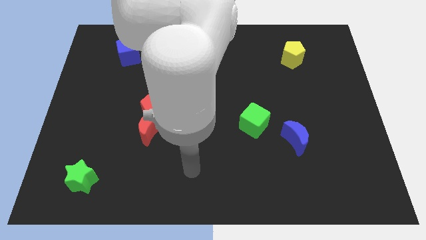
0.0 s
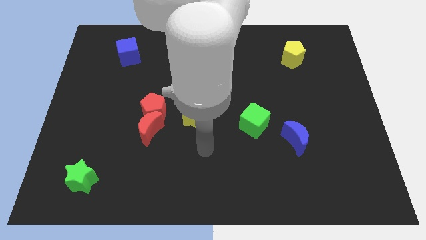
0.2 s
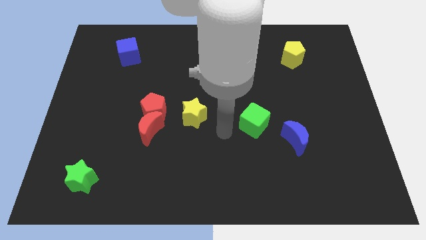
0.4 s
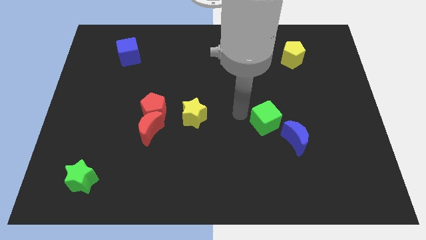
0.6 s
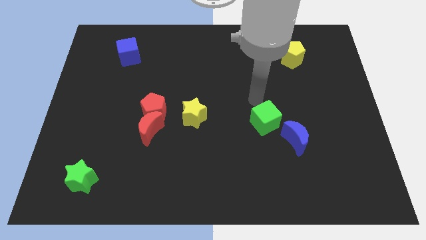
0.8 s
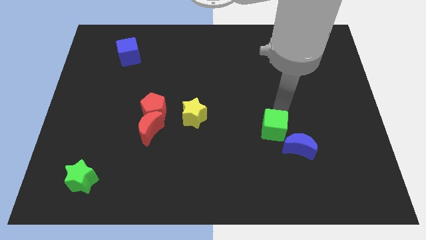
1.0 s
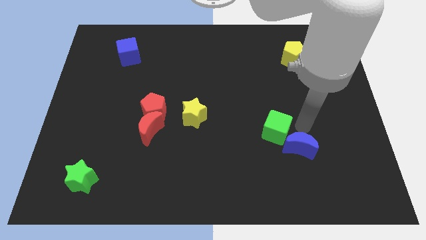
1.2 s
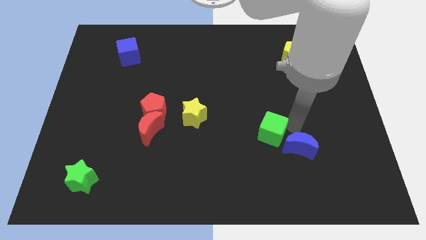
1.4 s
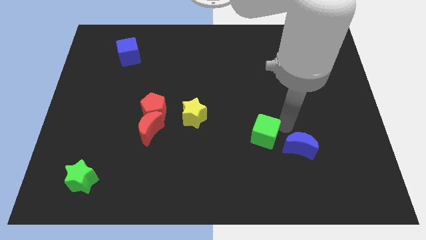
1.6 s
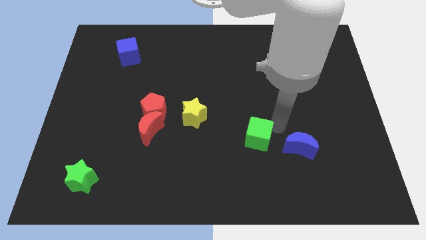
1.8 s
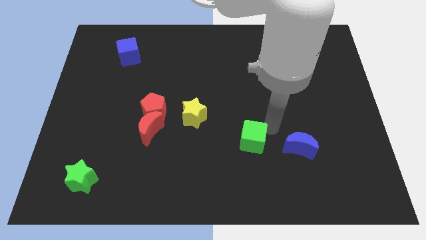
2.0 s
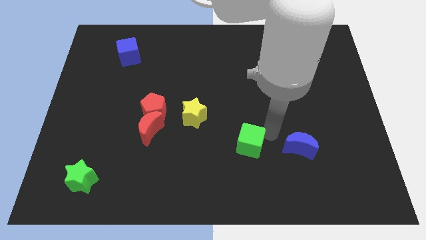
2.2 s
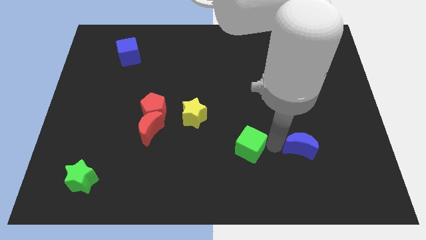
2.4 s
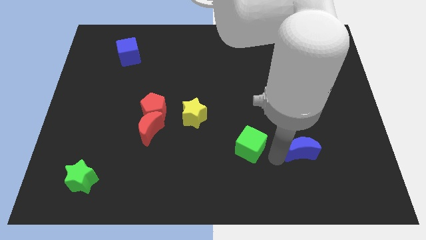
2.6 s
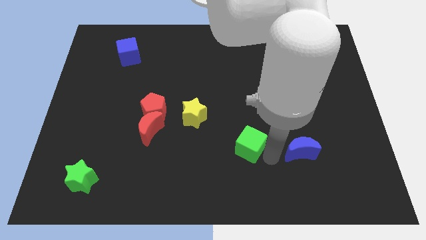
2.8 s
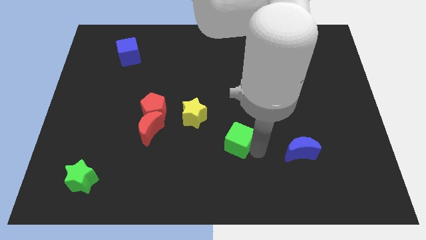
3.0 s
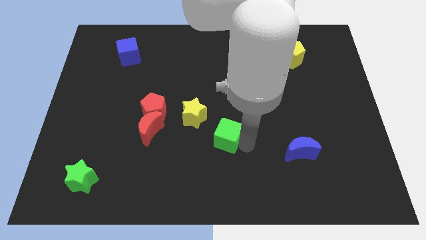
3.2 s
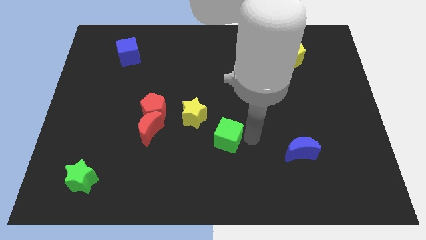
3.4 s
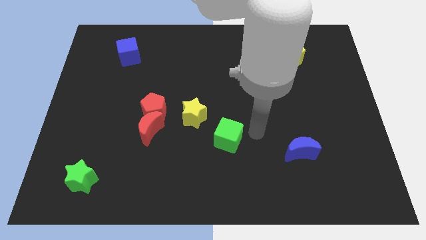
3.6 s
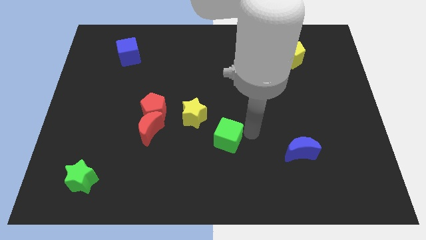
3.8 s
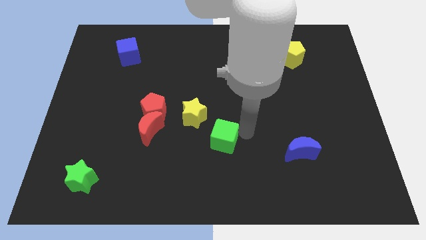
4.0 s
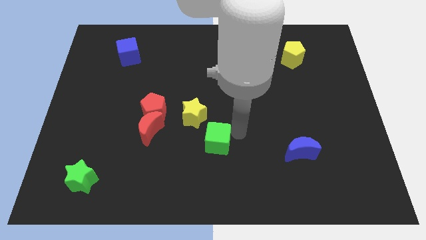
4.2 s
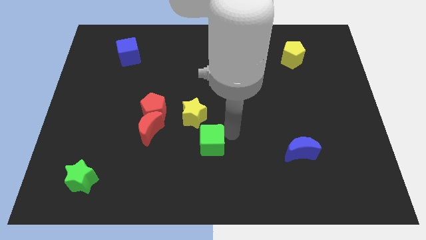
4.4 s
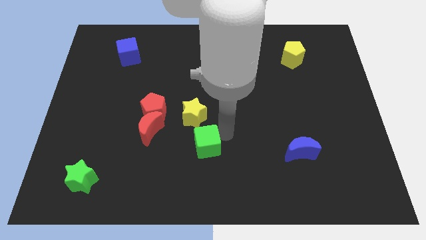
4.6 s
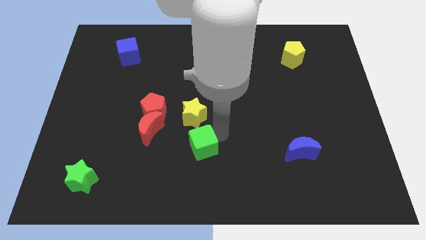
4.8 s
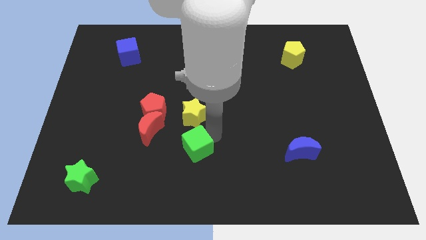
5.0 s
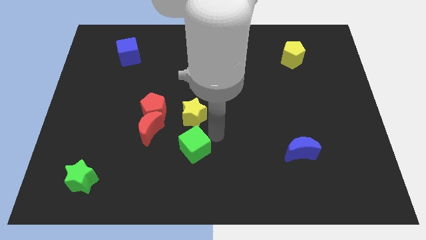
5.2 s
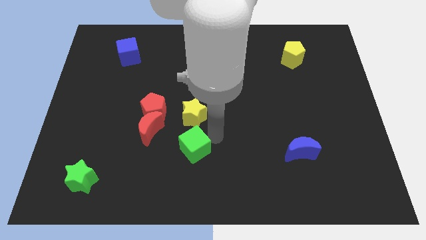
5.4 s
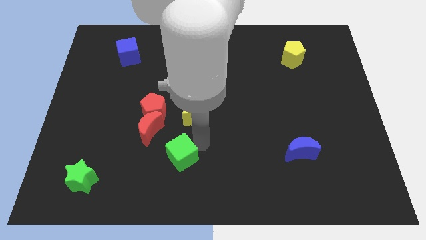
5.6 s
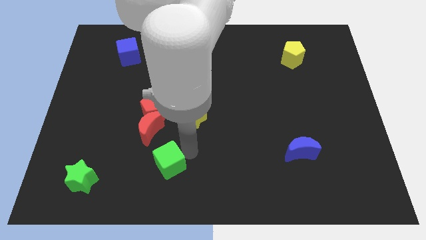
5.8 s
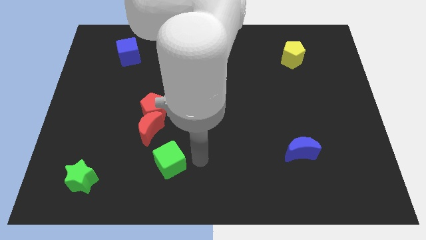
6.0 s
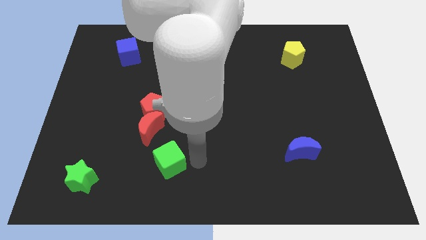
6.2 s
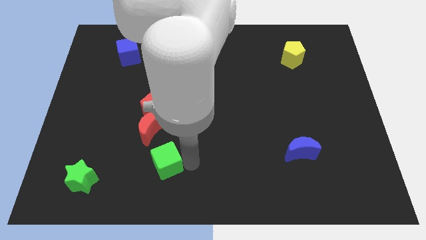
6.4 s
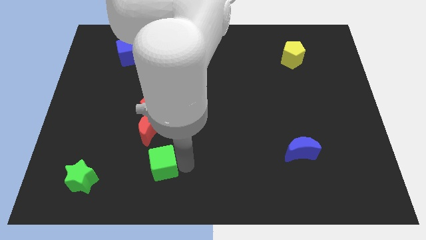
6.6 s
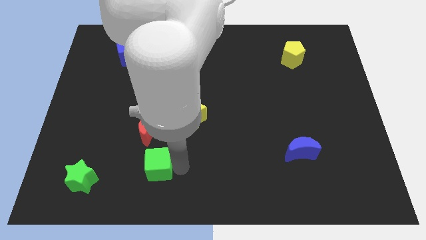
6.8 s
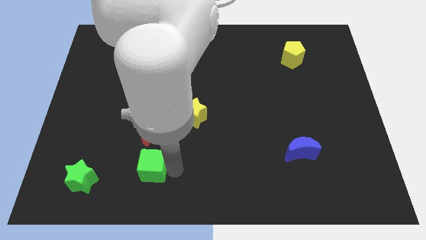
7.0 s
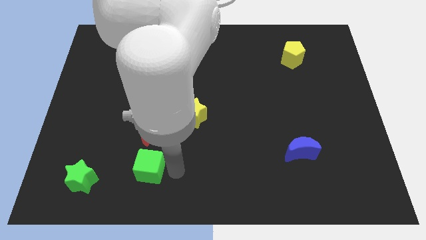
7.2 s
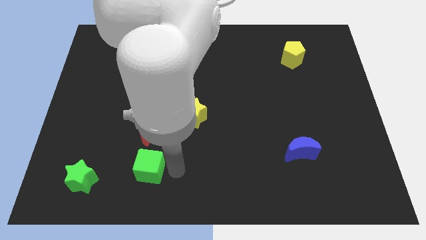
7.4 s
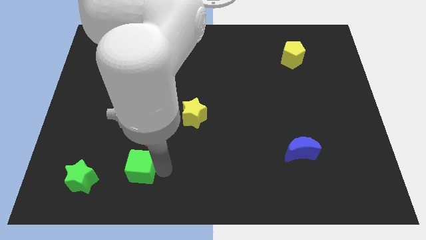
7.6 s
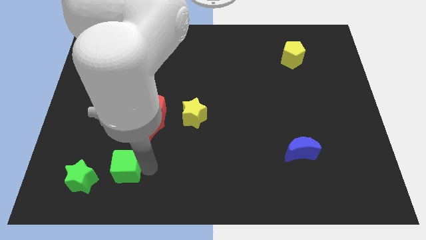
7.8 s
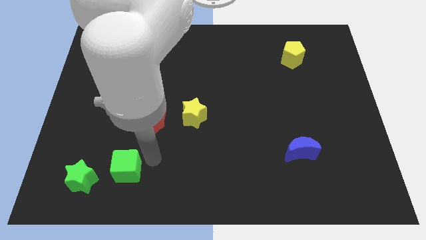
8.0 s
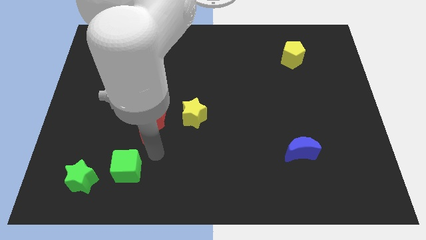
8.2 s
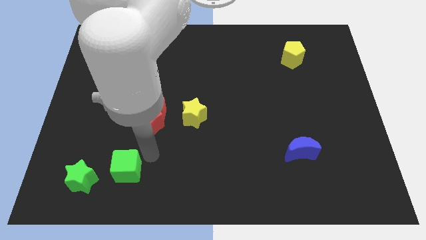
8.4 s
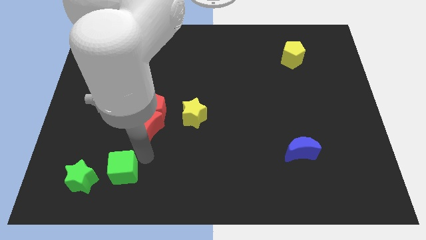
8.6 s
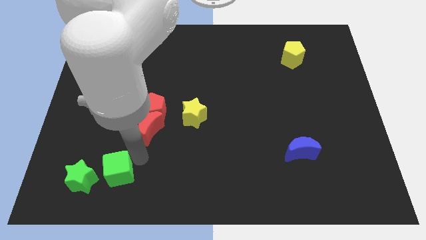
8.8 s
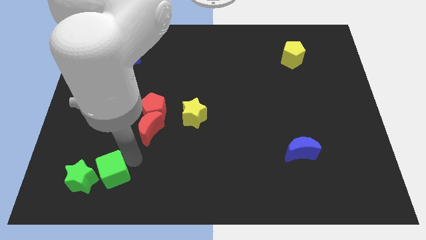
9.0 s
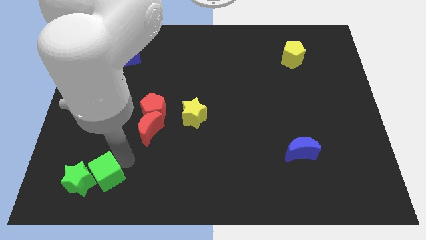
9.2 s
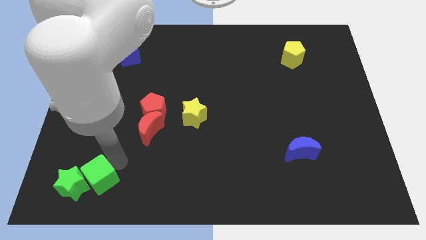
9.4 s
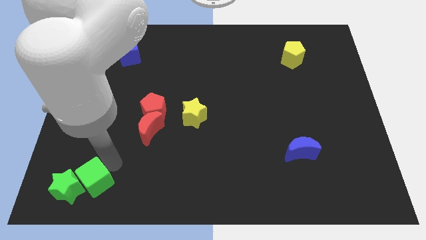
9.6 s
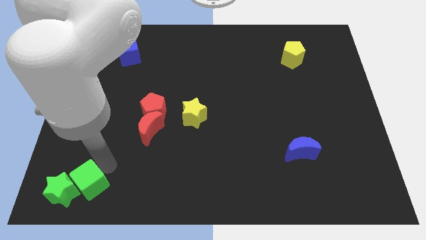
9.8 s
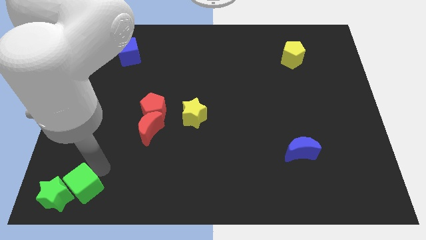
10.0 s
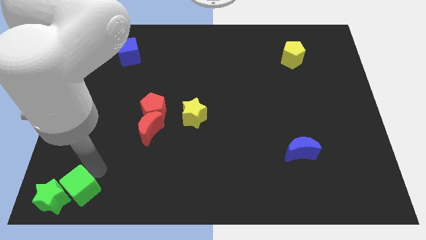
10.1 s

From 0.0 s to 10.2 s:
move the green cube to the bottom left

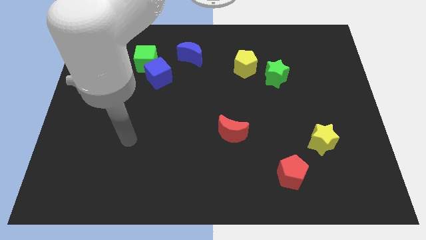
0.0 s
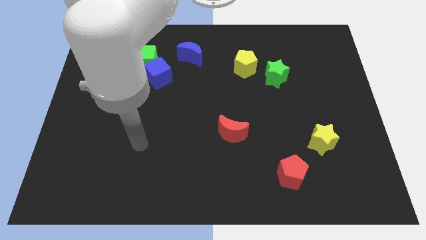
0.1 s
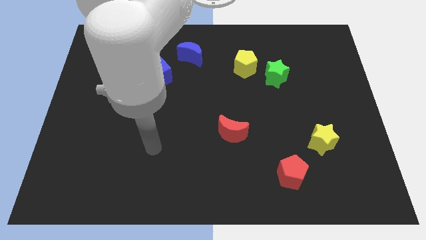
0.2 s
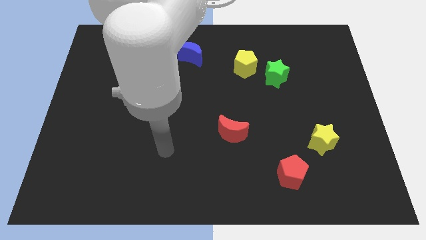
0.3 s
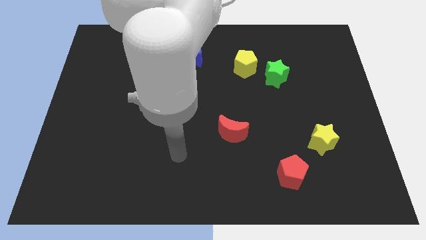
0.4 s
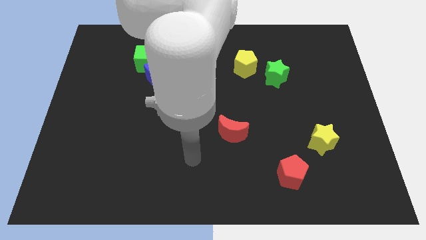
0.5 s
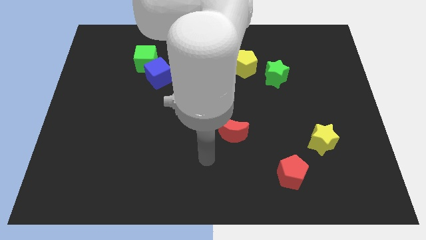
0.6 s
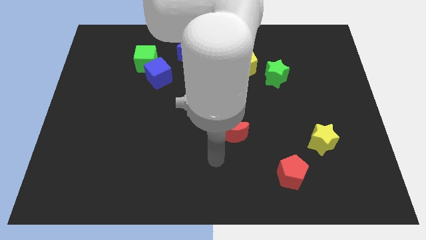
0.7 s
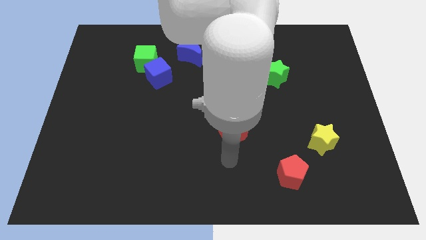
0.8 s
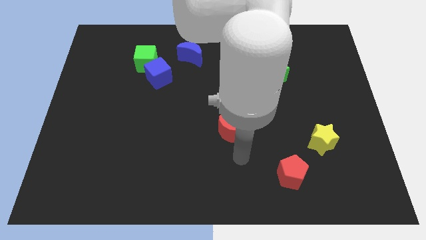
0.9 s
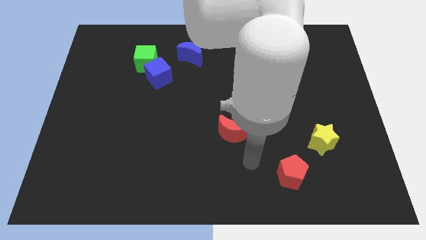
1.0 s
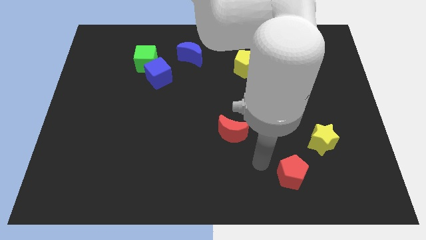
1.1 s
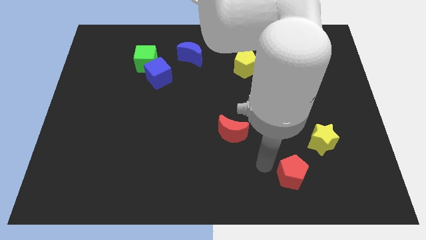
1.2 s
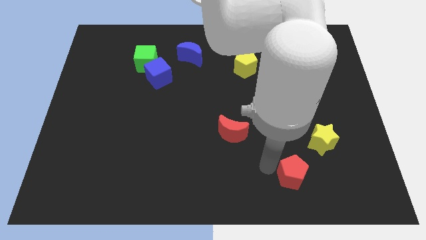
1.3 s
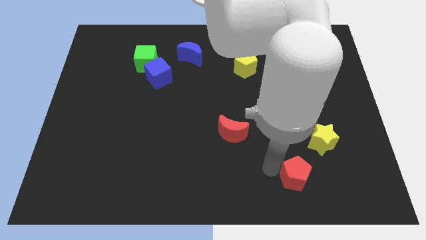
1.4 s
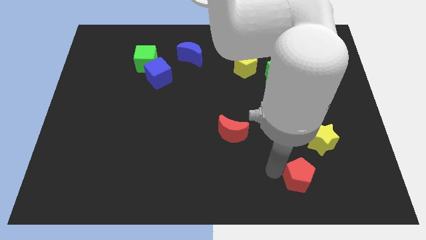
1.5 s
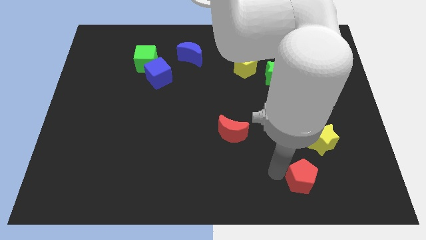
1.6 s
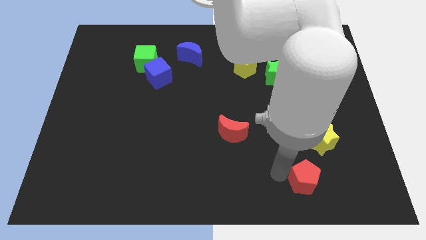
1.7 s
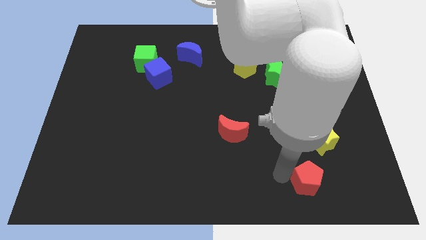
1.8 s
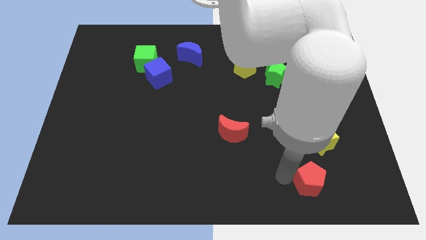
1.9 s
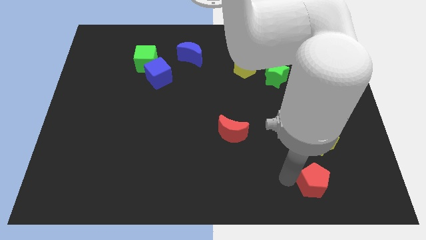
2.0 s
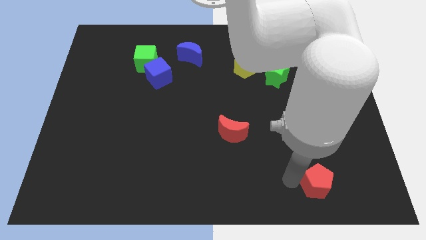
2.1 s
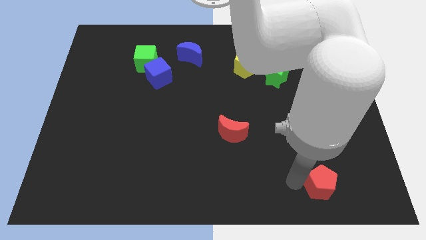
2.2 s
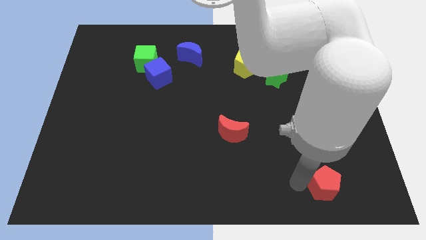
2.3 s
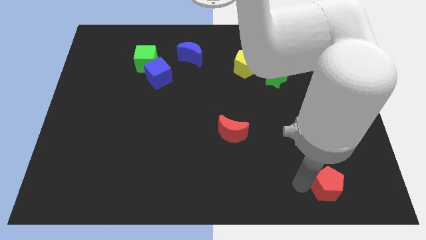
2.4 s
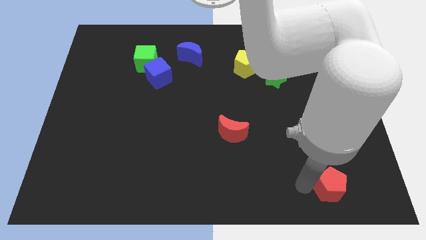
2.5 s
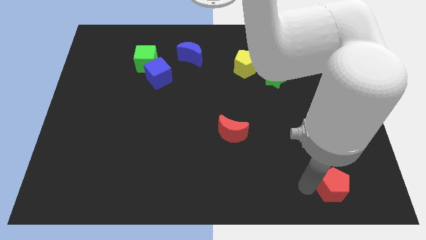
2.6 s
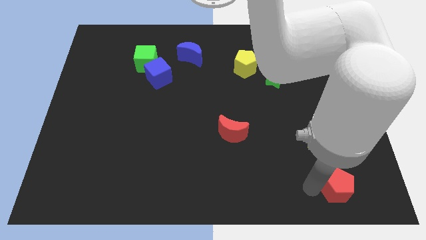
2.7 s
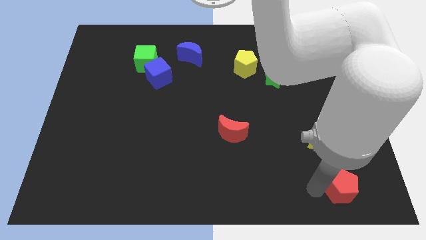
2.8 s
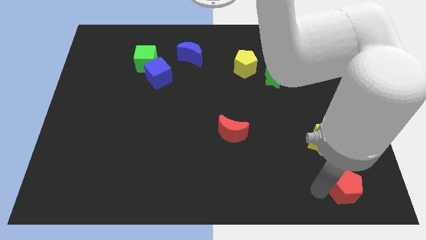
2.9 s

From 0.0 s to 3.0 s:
push the red pentagon to the lower right corner
